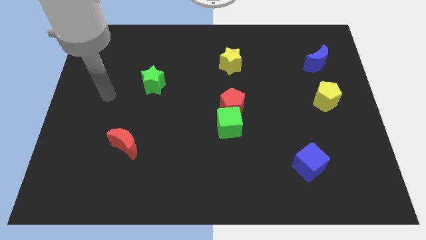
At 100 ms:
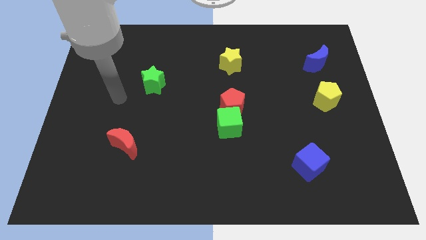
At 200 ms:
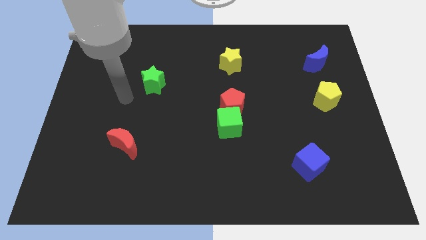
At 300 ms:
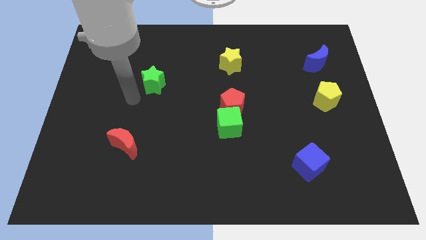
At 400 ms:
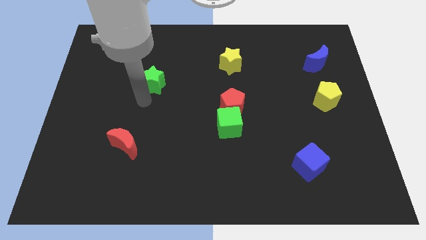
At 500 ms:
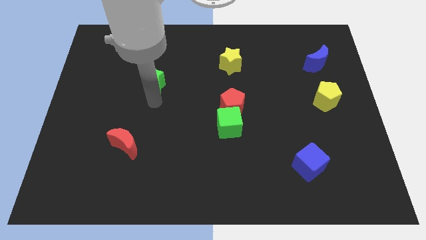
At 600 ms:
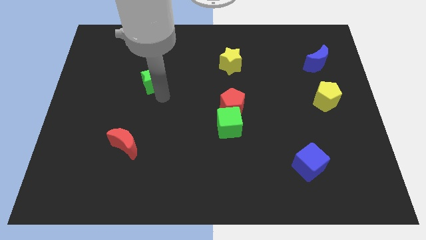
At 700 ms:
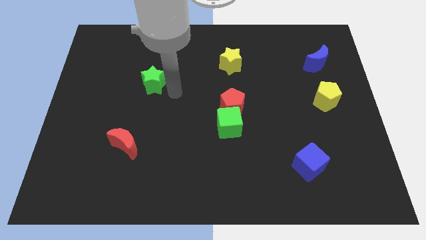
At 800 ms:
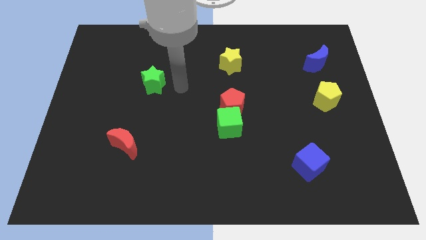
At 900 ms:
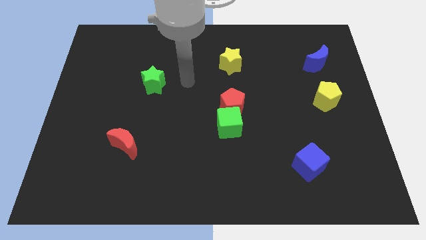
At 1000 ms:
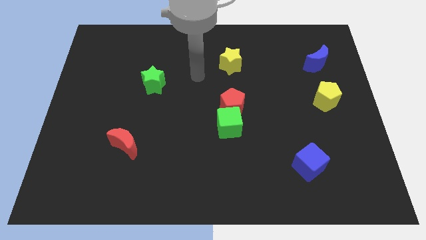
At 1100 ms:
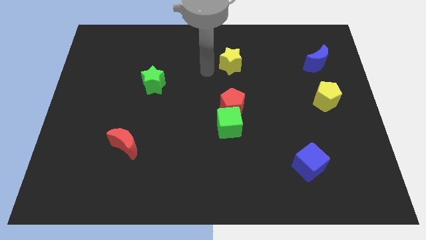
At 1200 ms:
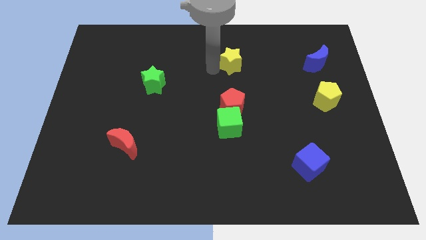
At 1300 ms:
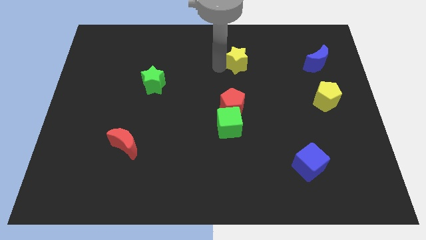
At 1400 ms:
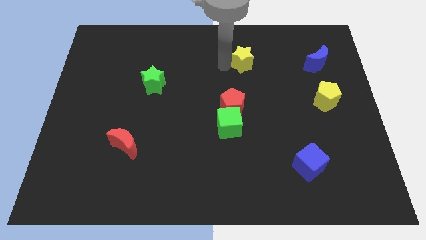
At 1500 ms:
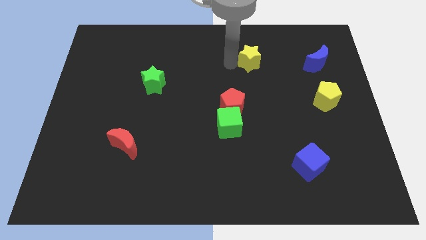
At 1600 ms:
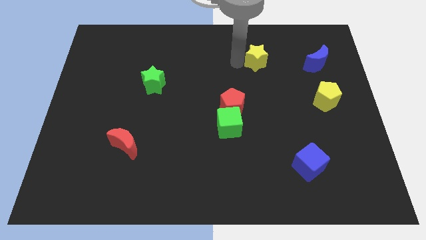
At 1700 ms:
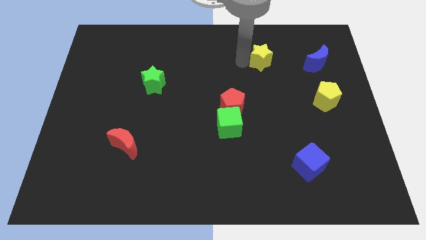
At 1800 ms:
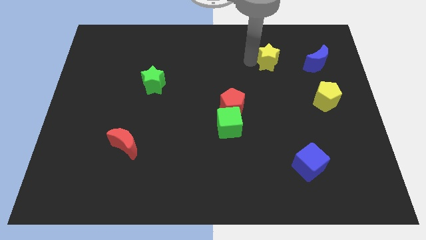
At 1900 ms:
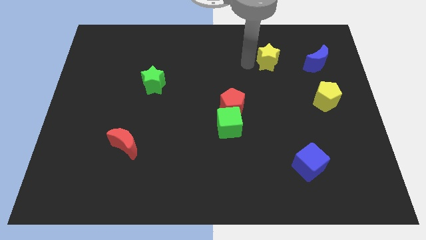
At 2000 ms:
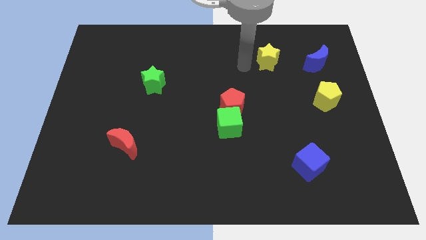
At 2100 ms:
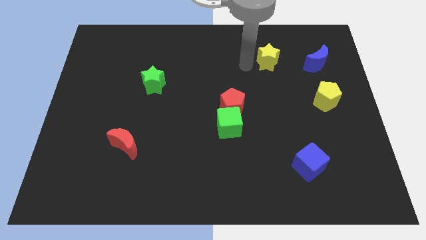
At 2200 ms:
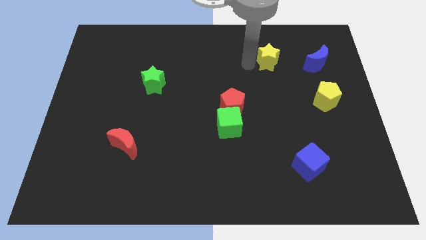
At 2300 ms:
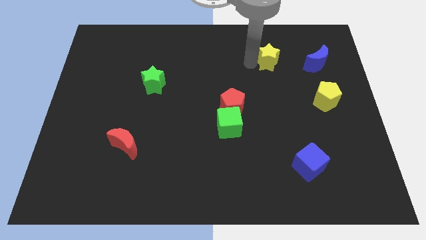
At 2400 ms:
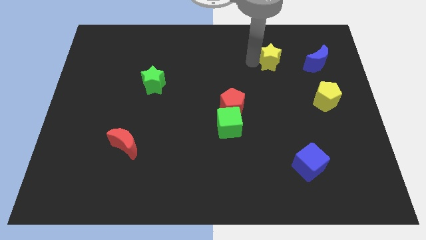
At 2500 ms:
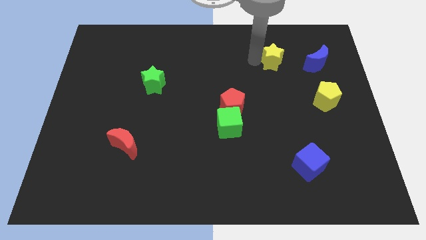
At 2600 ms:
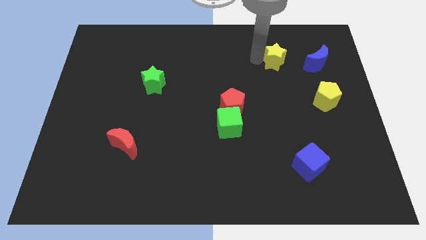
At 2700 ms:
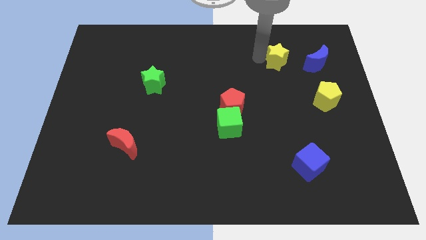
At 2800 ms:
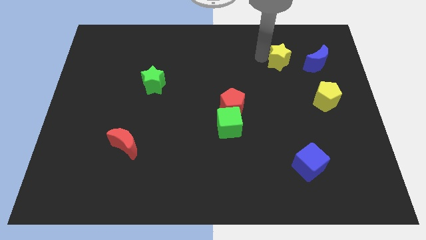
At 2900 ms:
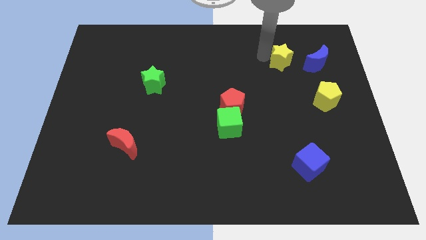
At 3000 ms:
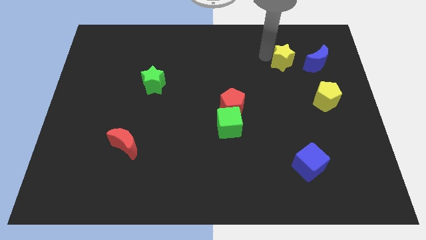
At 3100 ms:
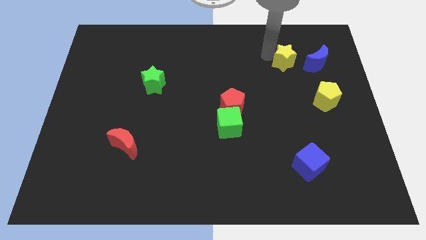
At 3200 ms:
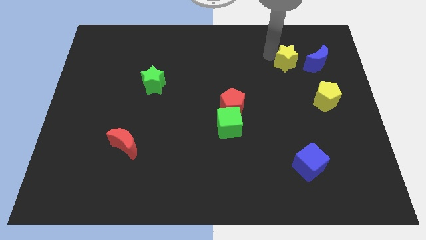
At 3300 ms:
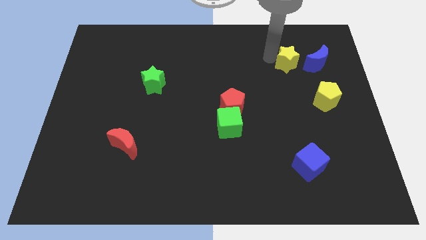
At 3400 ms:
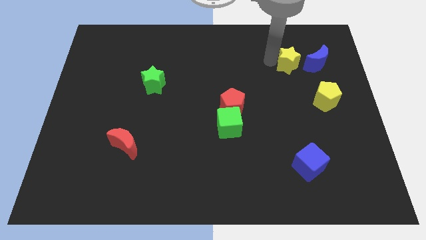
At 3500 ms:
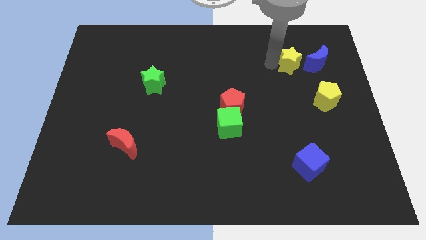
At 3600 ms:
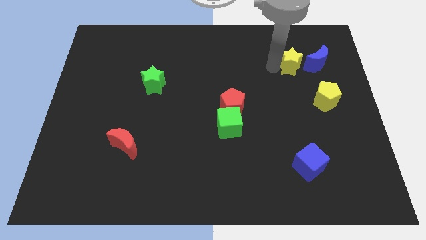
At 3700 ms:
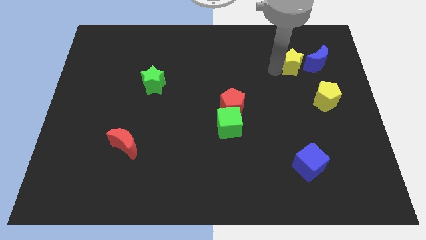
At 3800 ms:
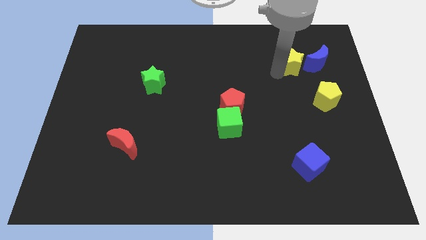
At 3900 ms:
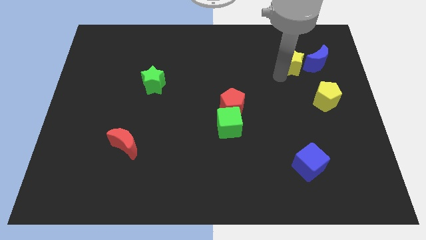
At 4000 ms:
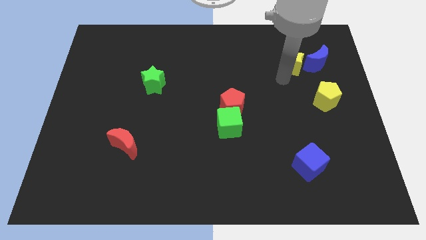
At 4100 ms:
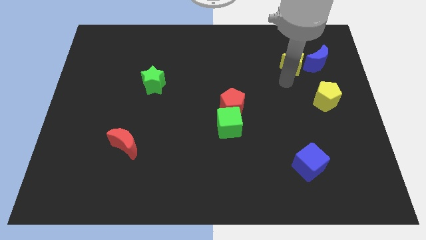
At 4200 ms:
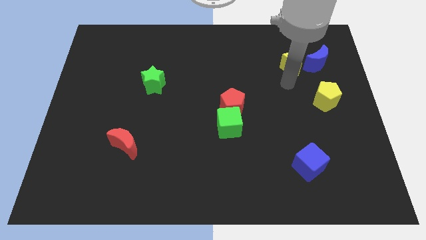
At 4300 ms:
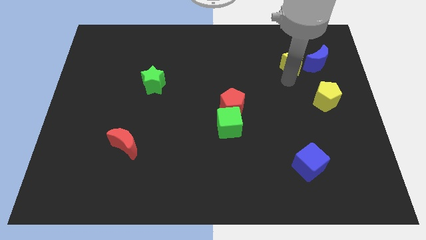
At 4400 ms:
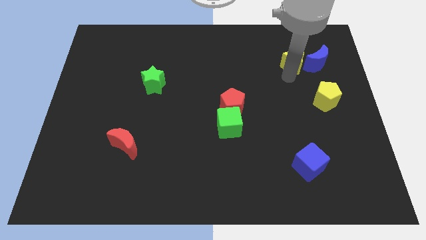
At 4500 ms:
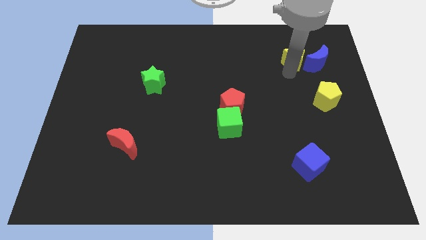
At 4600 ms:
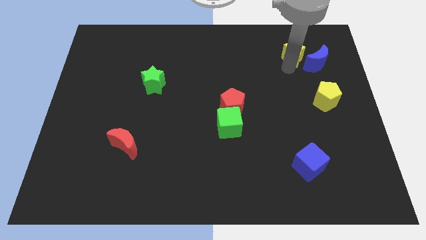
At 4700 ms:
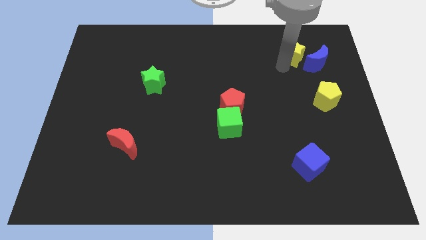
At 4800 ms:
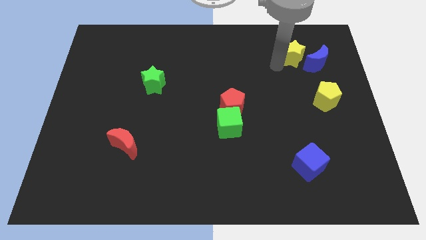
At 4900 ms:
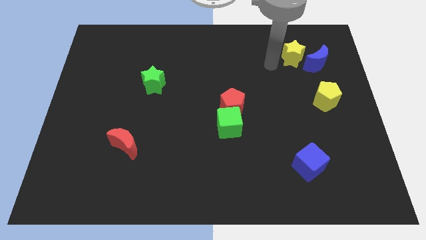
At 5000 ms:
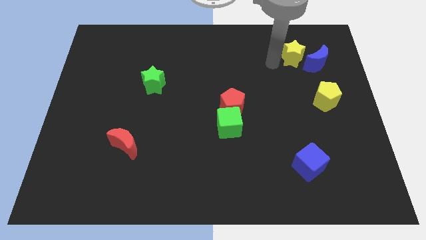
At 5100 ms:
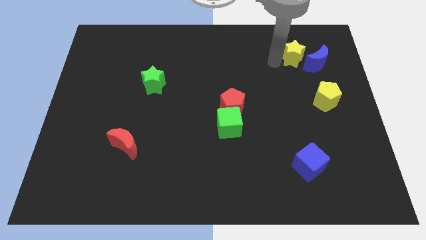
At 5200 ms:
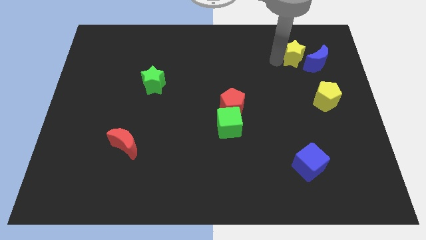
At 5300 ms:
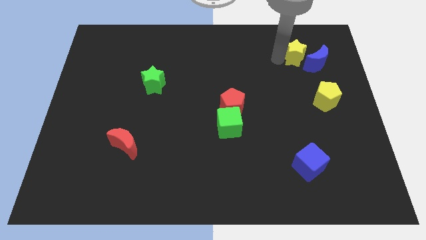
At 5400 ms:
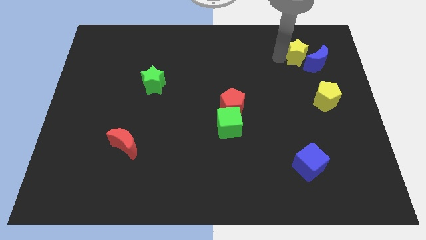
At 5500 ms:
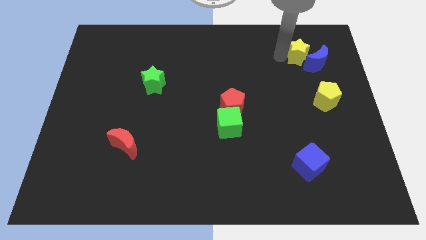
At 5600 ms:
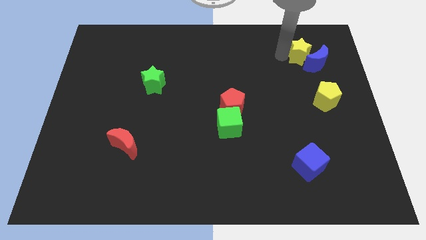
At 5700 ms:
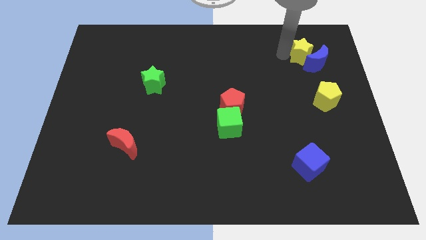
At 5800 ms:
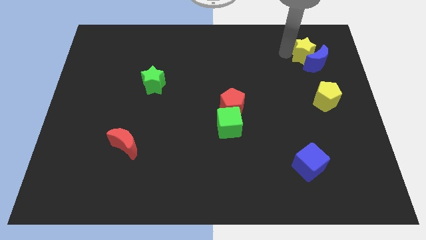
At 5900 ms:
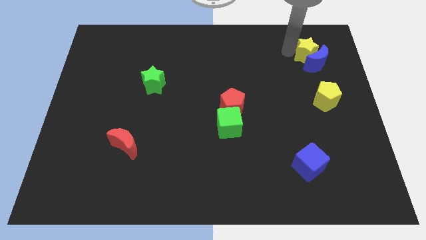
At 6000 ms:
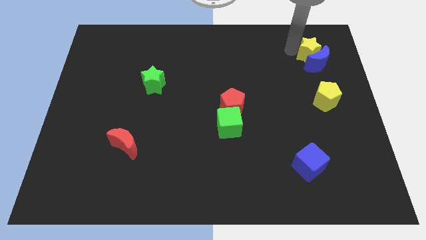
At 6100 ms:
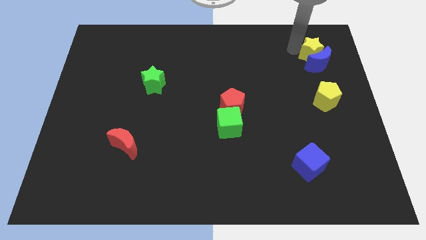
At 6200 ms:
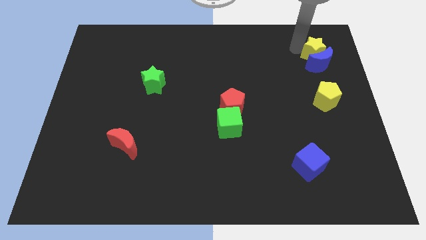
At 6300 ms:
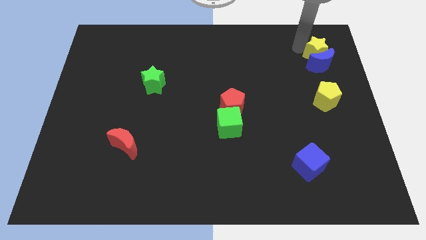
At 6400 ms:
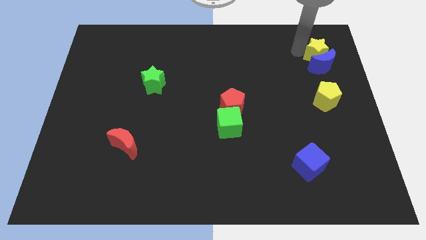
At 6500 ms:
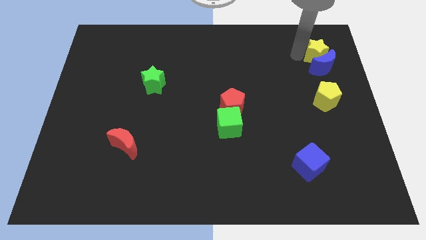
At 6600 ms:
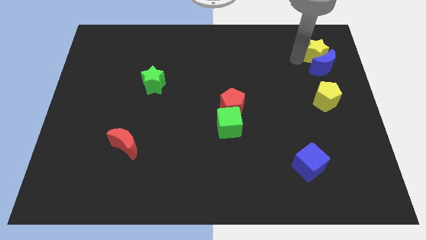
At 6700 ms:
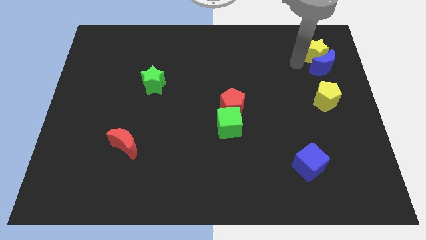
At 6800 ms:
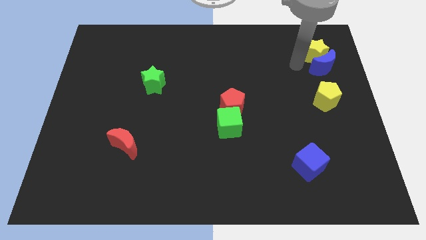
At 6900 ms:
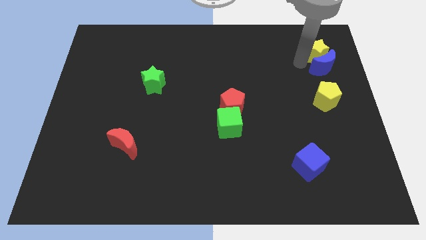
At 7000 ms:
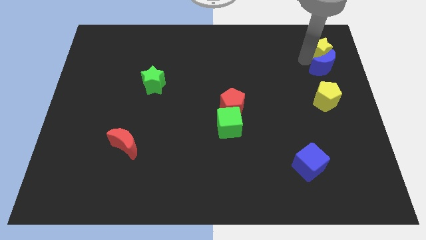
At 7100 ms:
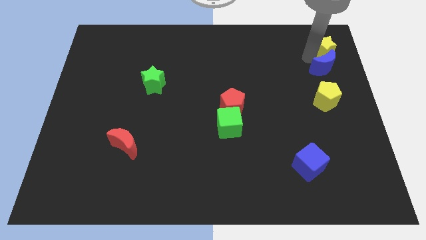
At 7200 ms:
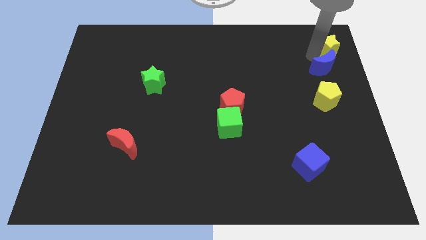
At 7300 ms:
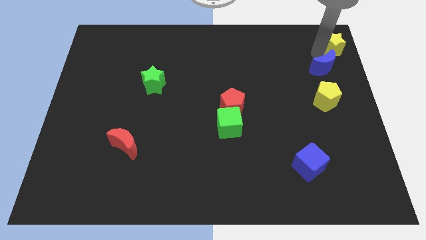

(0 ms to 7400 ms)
slide the yellow star to the top right of the board
